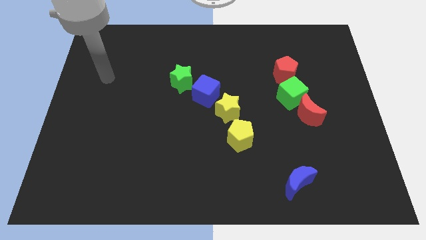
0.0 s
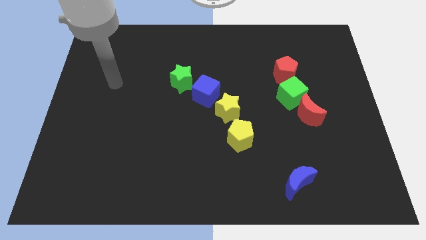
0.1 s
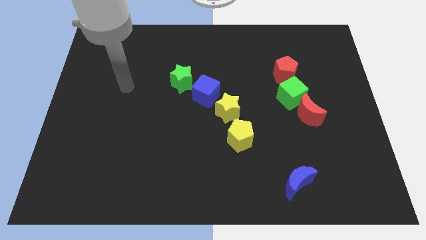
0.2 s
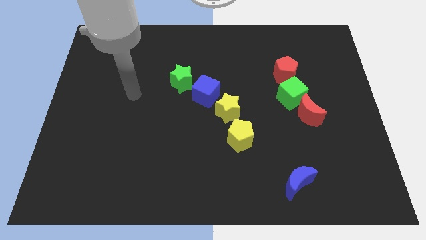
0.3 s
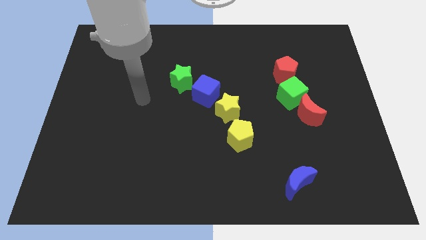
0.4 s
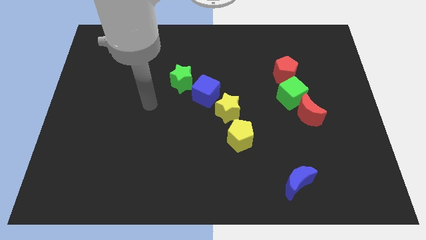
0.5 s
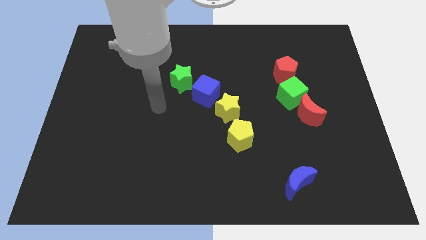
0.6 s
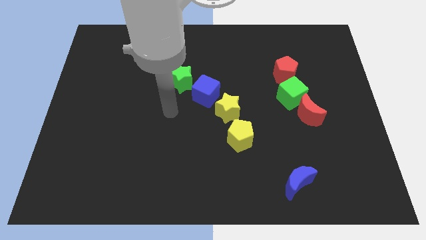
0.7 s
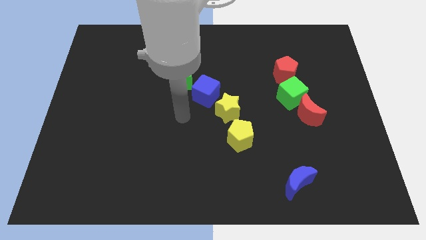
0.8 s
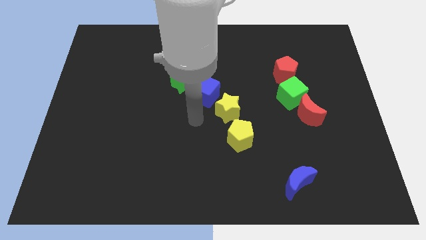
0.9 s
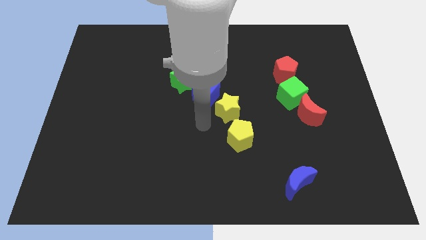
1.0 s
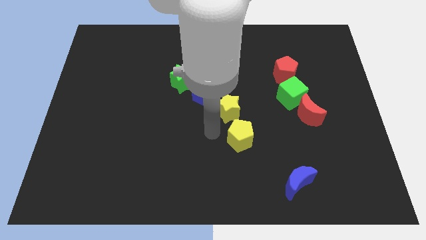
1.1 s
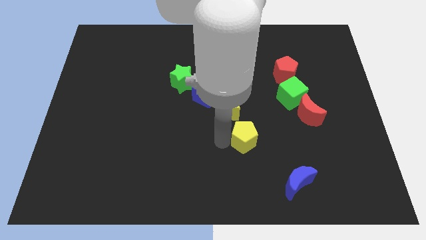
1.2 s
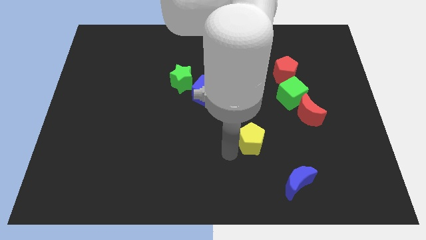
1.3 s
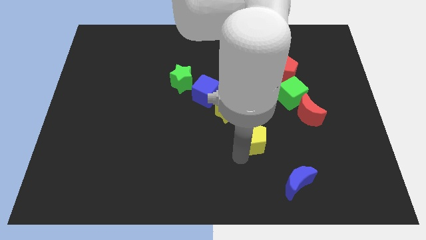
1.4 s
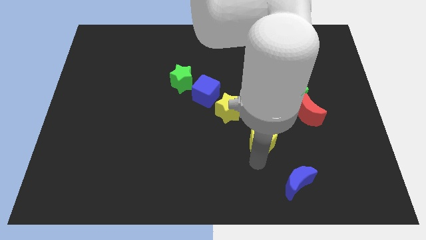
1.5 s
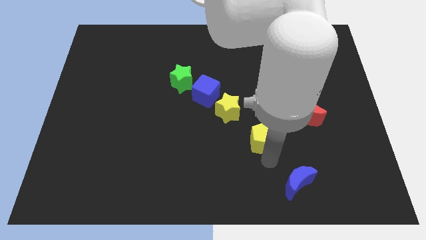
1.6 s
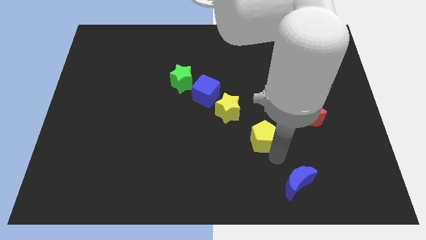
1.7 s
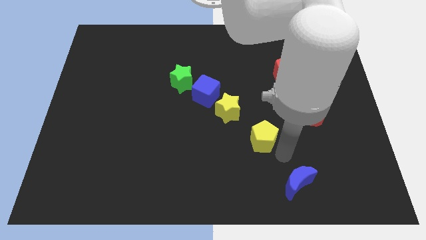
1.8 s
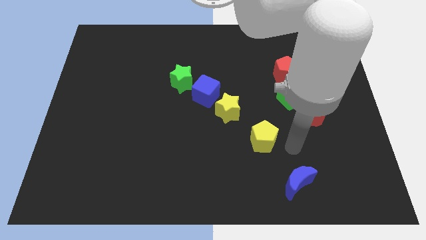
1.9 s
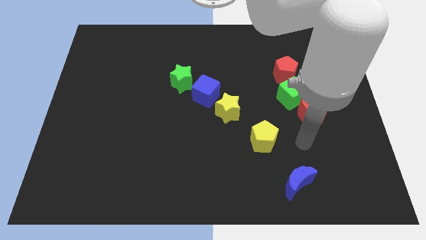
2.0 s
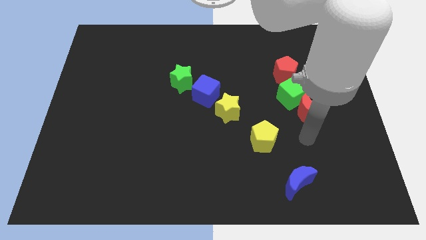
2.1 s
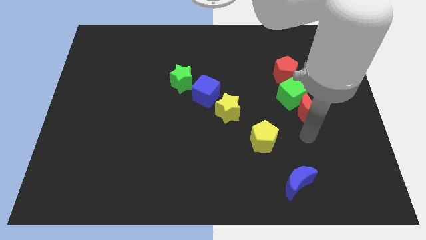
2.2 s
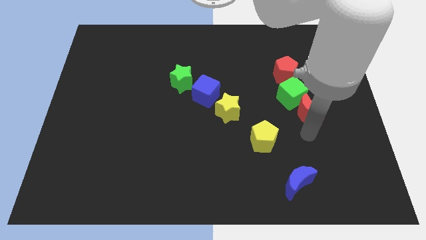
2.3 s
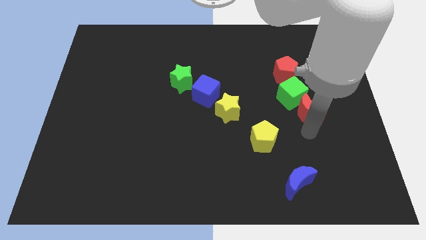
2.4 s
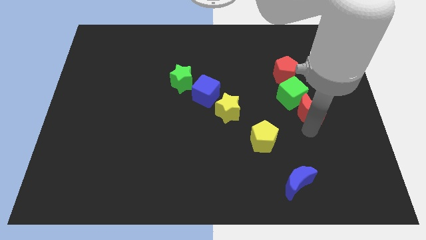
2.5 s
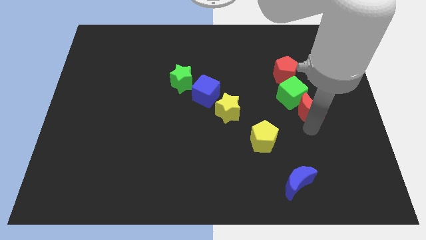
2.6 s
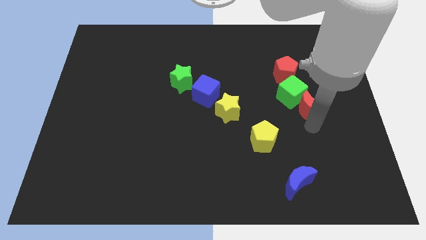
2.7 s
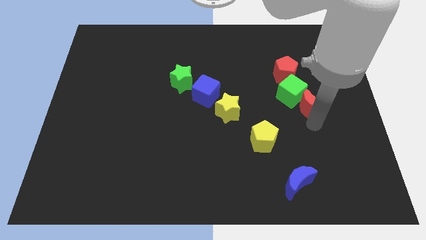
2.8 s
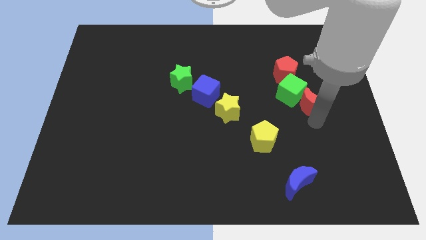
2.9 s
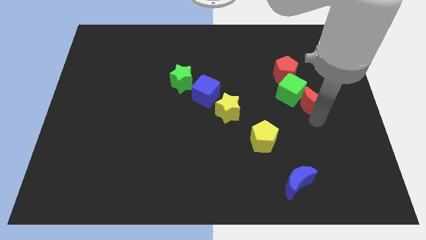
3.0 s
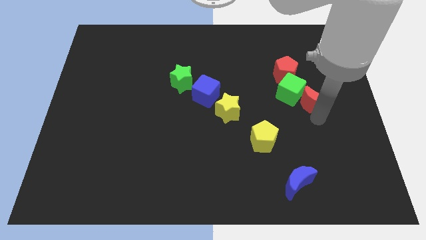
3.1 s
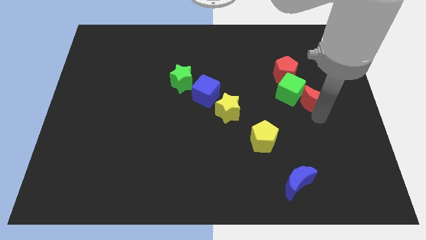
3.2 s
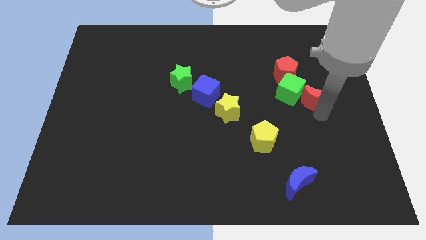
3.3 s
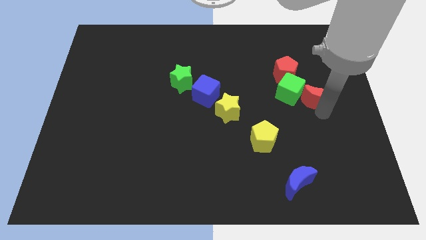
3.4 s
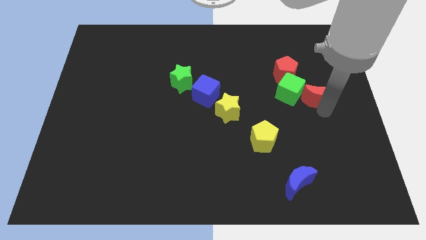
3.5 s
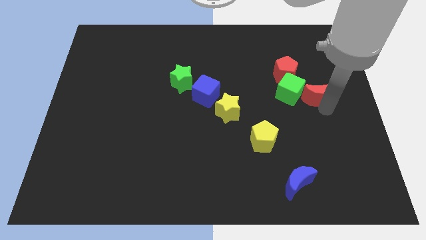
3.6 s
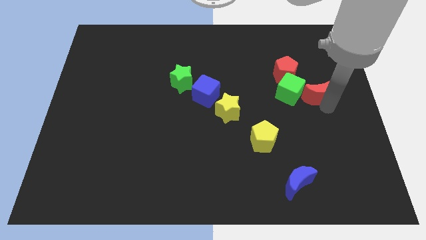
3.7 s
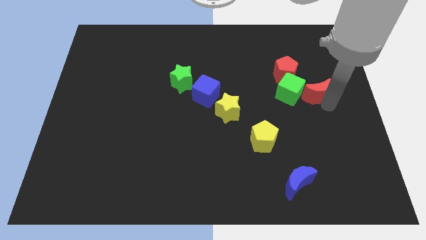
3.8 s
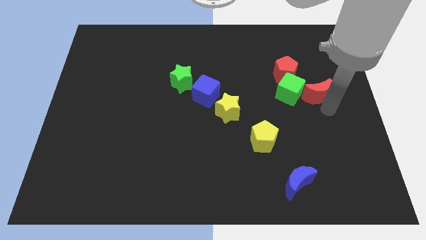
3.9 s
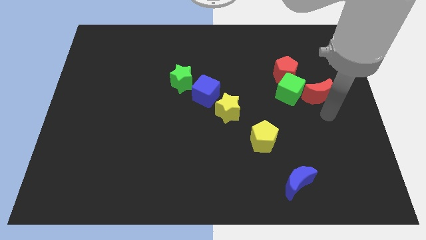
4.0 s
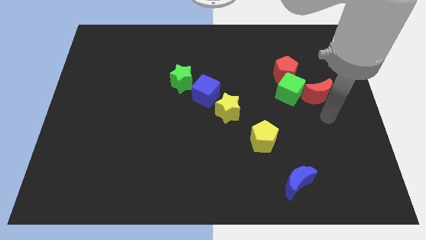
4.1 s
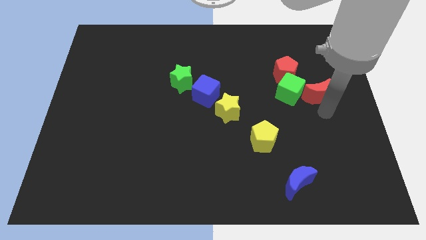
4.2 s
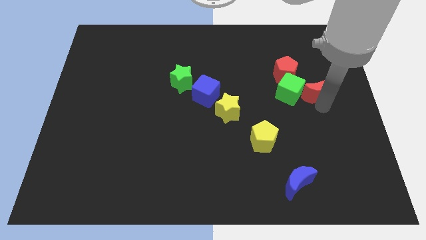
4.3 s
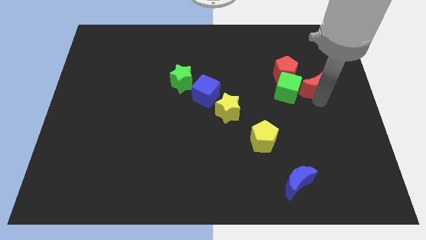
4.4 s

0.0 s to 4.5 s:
slightly slide the red moon upwards

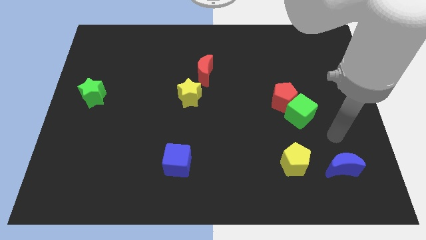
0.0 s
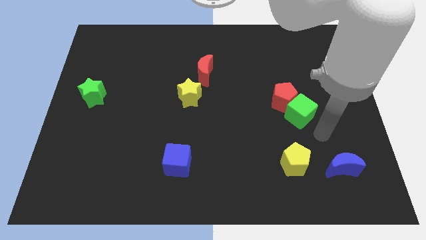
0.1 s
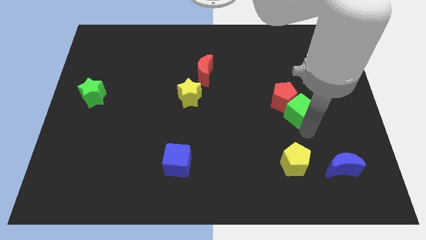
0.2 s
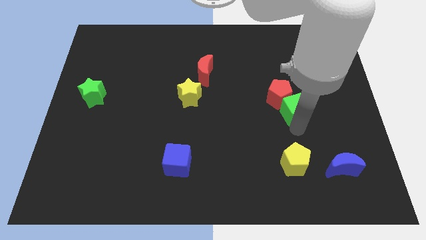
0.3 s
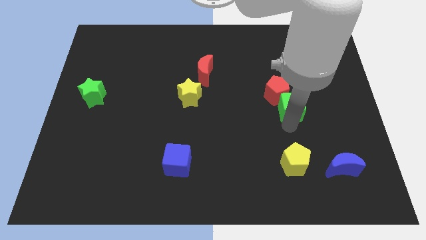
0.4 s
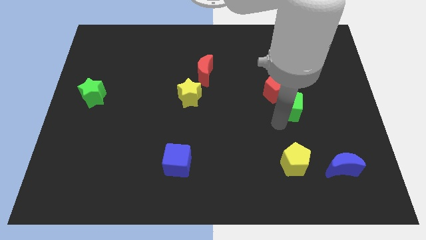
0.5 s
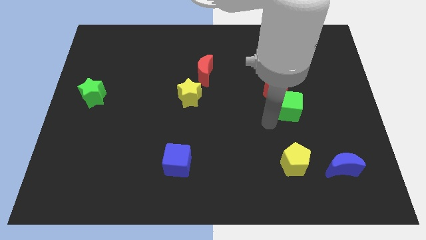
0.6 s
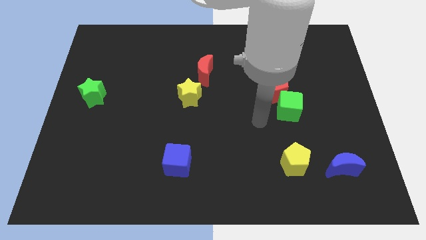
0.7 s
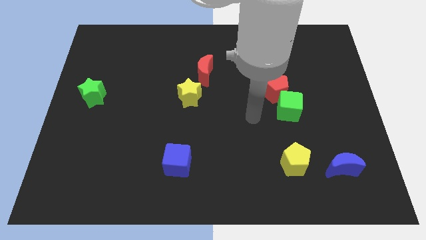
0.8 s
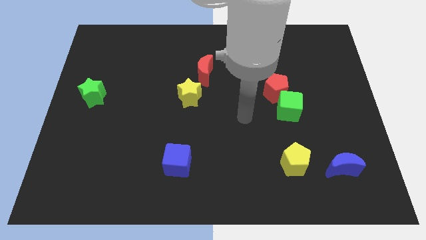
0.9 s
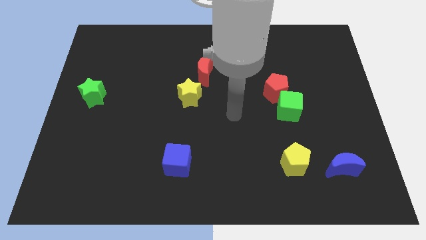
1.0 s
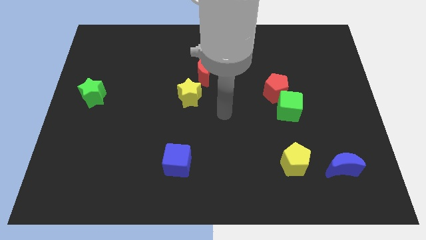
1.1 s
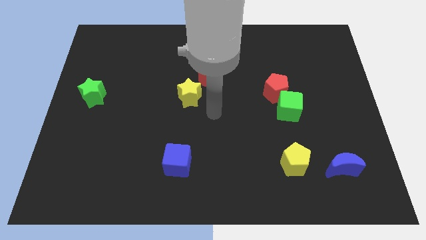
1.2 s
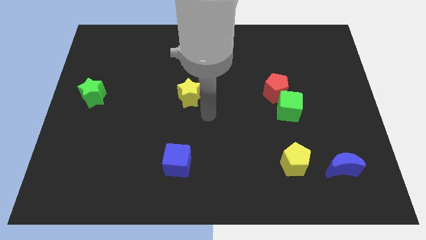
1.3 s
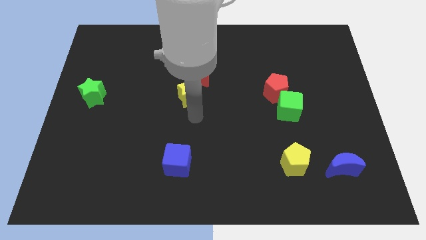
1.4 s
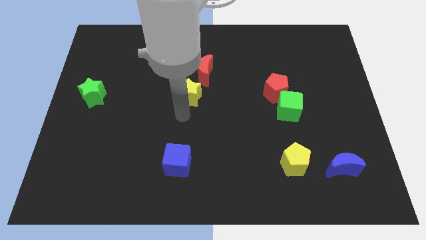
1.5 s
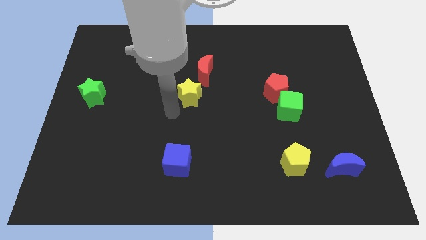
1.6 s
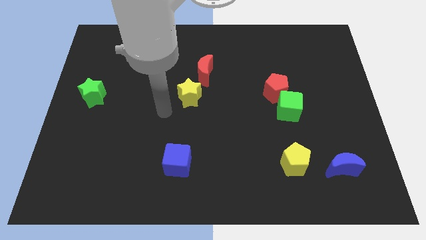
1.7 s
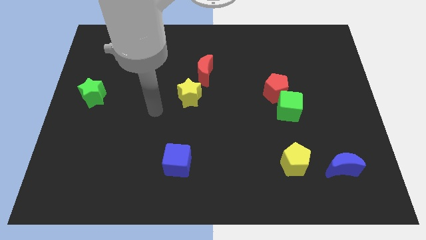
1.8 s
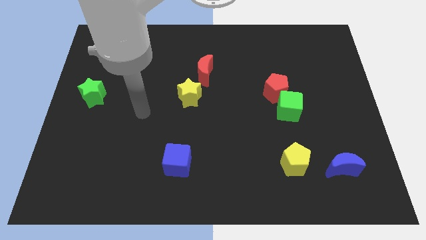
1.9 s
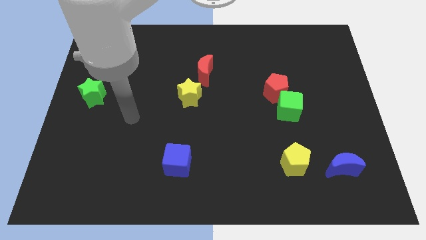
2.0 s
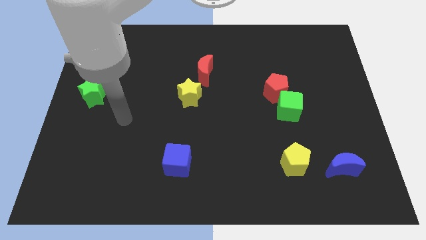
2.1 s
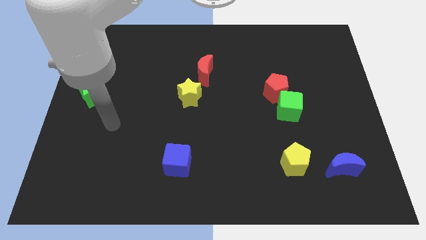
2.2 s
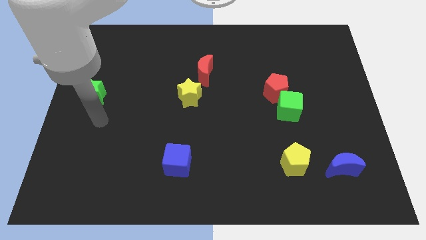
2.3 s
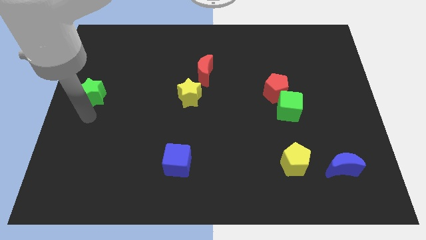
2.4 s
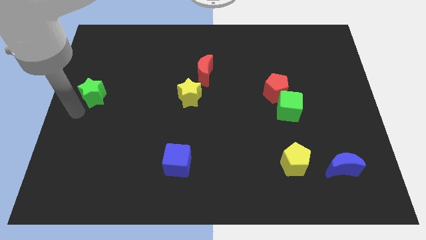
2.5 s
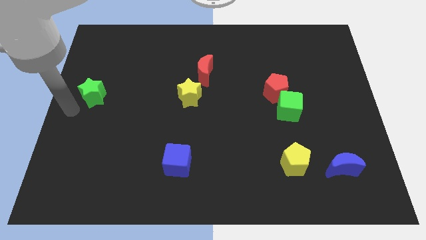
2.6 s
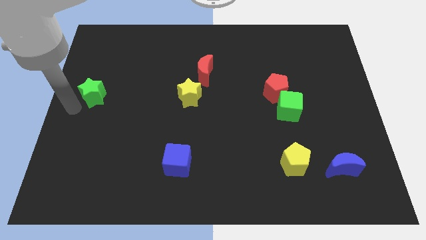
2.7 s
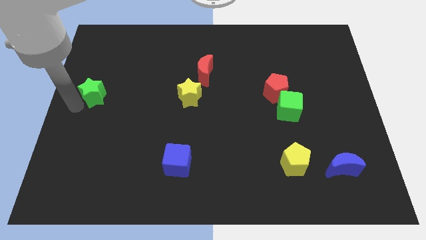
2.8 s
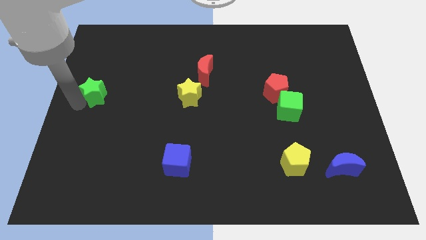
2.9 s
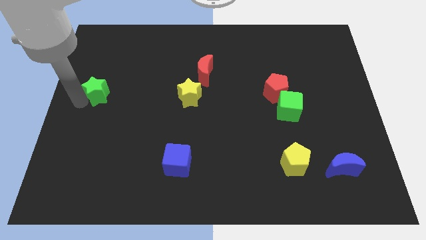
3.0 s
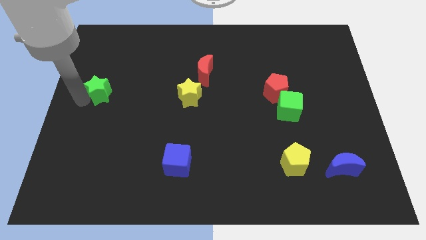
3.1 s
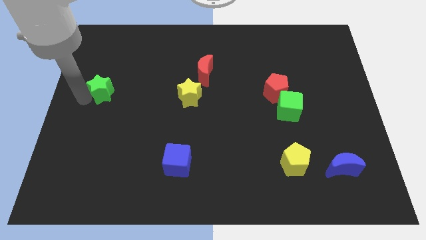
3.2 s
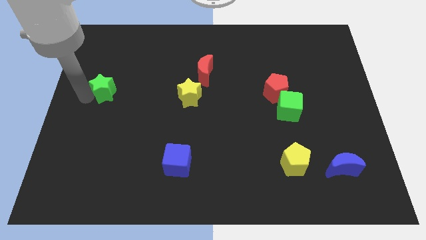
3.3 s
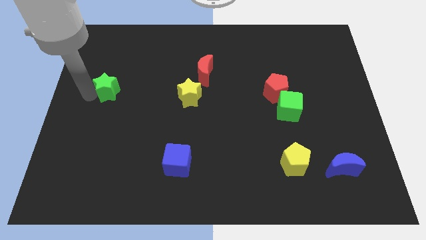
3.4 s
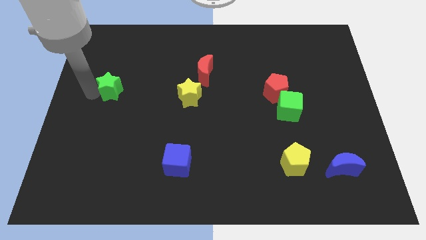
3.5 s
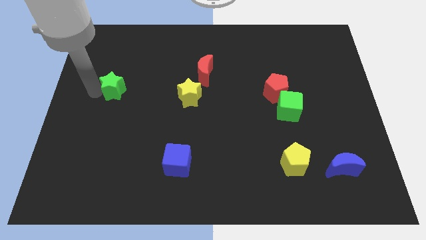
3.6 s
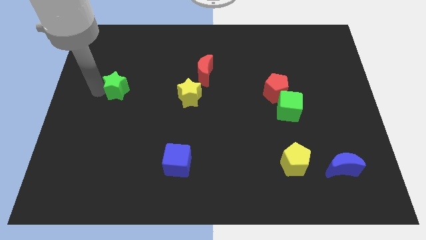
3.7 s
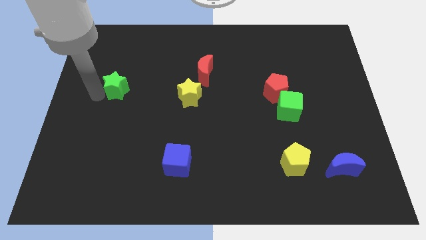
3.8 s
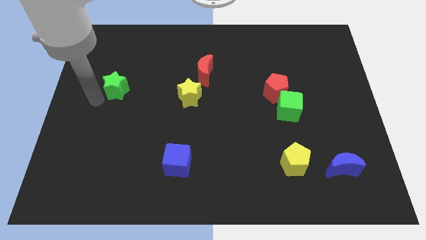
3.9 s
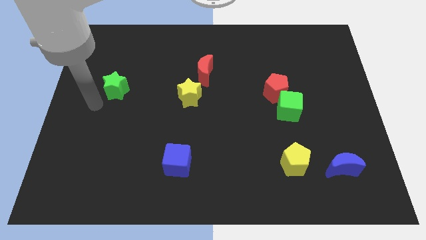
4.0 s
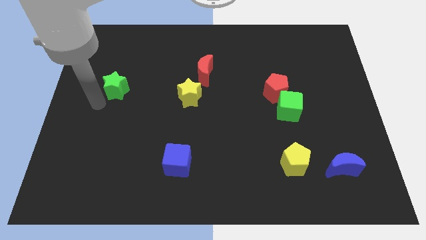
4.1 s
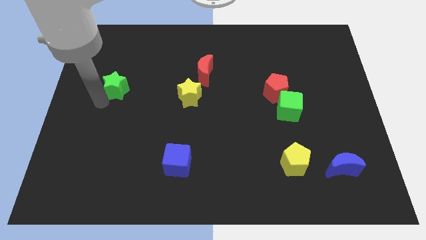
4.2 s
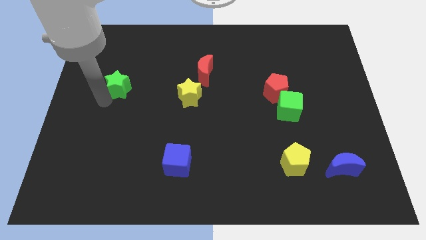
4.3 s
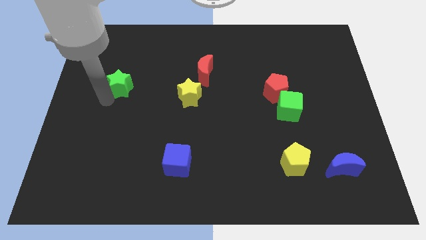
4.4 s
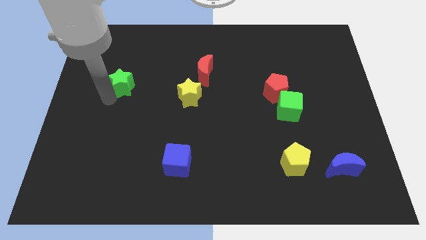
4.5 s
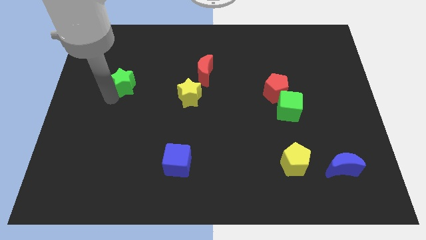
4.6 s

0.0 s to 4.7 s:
move the green star upwards and then to the right a bit
